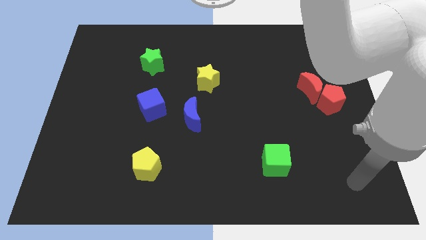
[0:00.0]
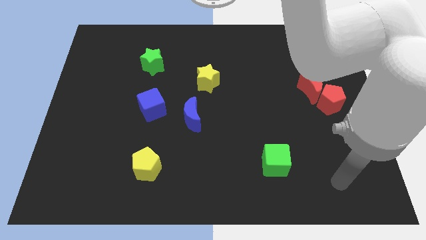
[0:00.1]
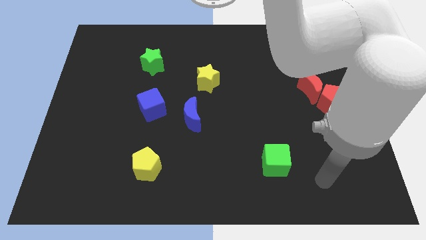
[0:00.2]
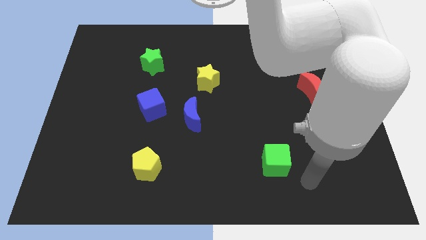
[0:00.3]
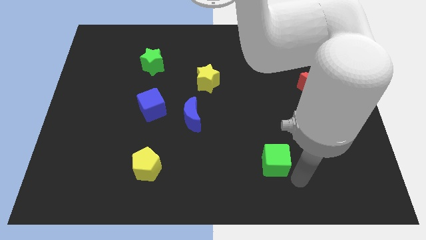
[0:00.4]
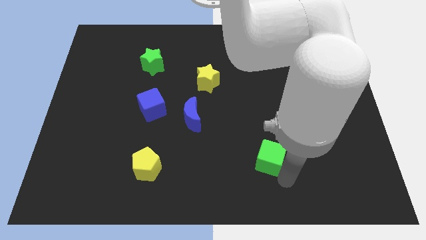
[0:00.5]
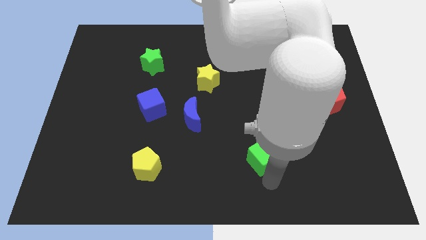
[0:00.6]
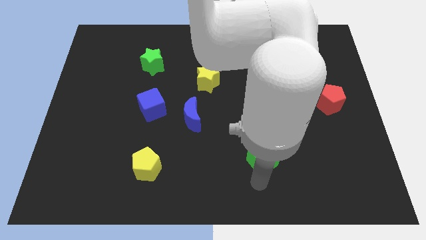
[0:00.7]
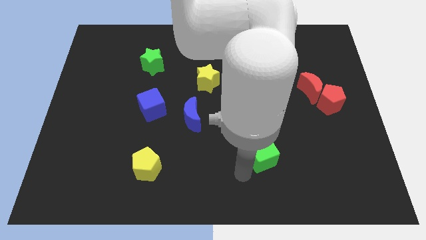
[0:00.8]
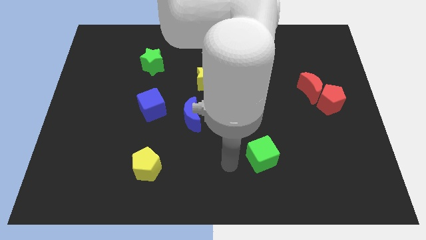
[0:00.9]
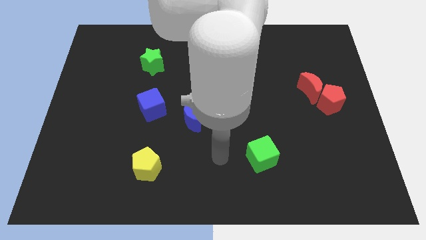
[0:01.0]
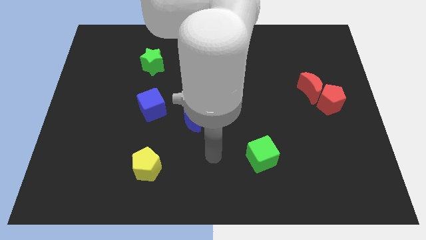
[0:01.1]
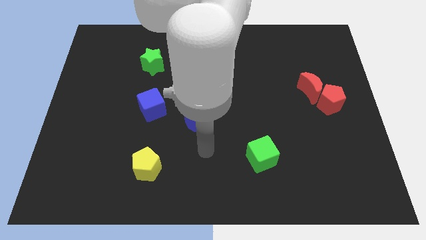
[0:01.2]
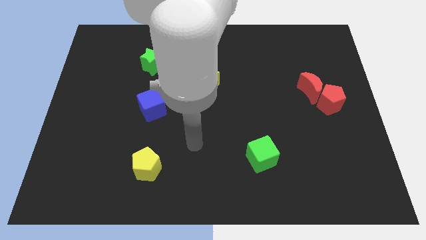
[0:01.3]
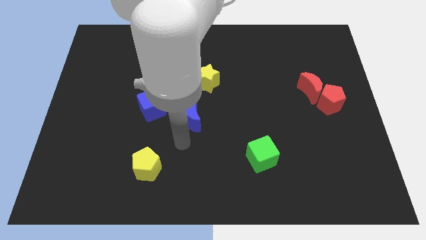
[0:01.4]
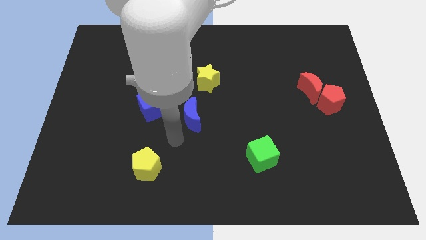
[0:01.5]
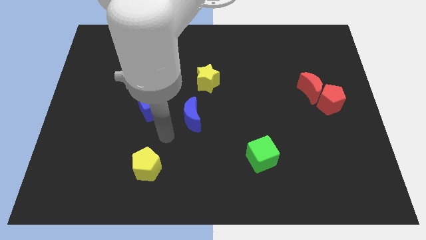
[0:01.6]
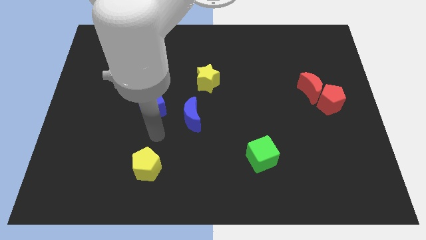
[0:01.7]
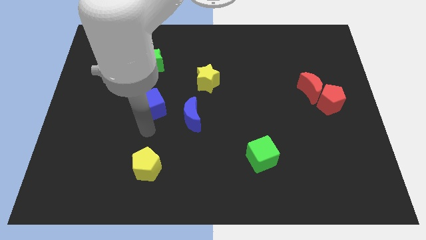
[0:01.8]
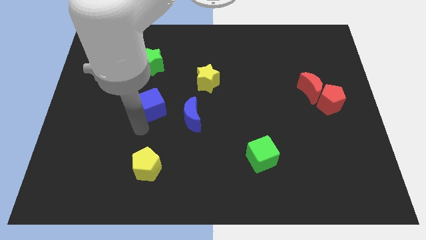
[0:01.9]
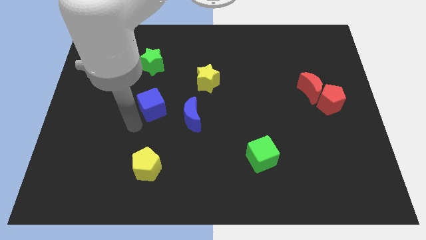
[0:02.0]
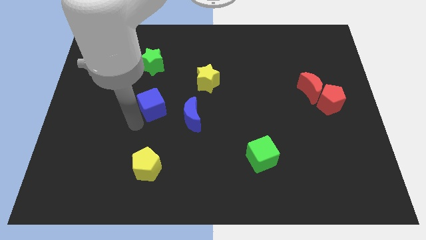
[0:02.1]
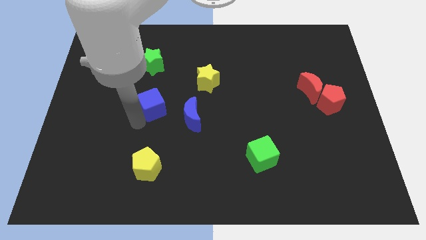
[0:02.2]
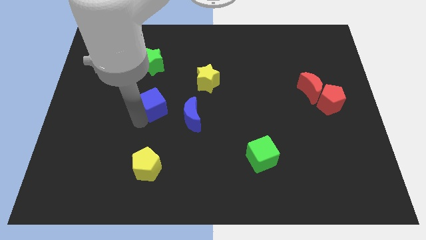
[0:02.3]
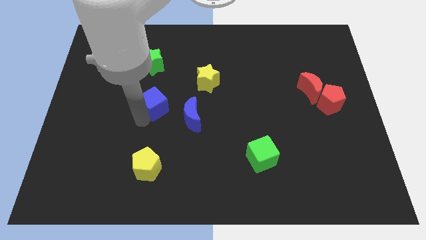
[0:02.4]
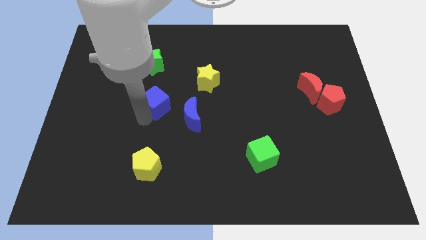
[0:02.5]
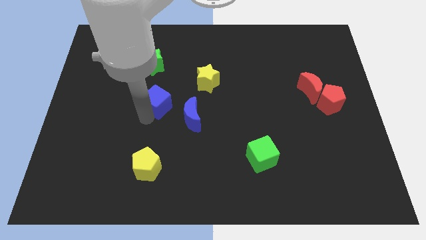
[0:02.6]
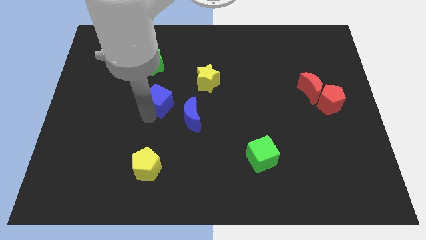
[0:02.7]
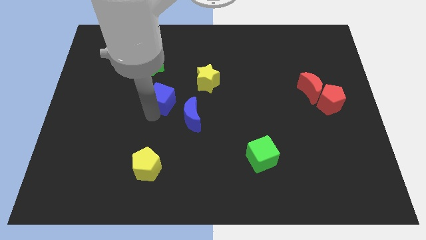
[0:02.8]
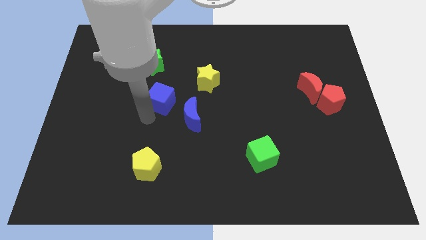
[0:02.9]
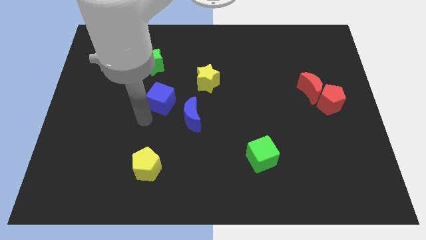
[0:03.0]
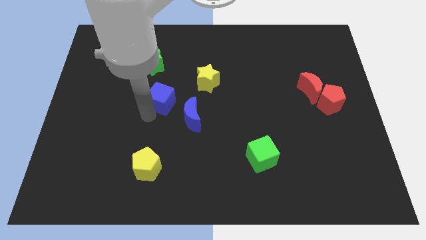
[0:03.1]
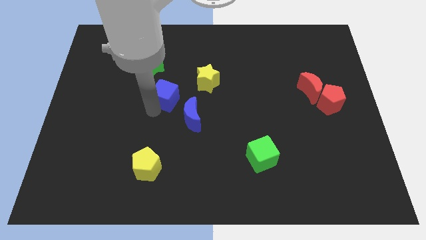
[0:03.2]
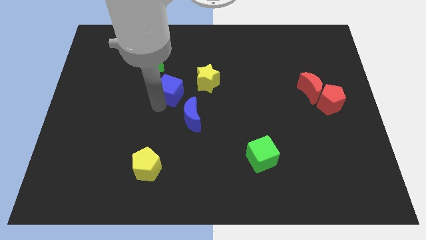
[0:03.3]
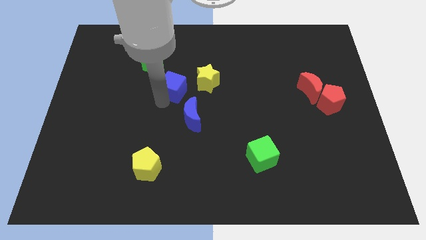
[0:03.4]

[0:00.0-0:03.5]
move the blue cube up and then right somewhat

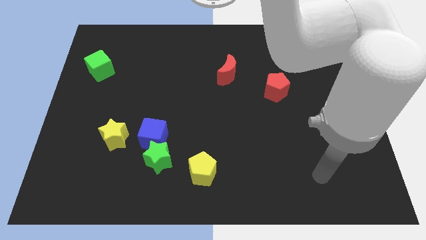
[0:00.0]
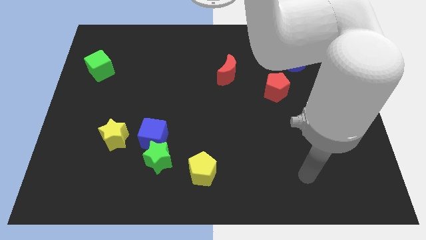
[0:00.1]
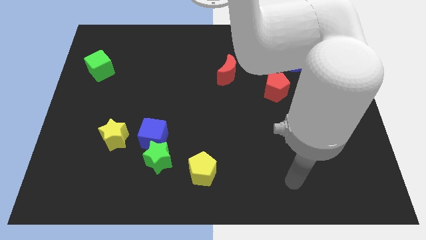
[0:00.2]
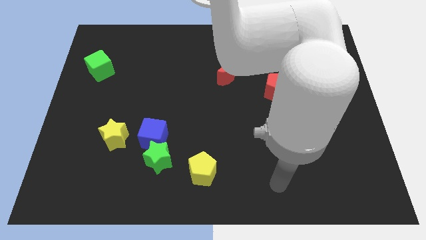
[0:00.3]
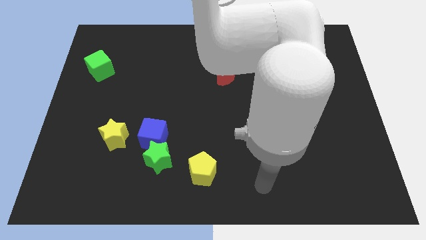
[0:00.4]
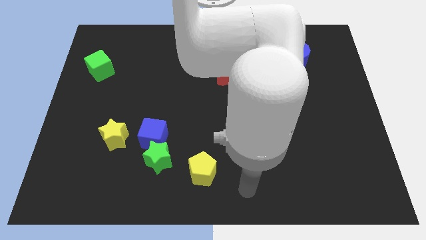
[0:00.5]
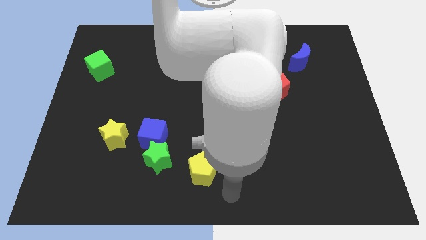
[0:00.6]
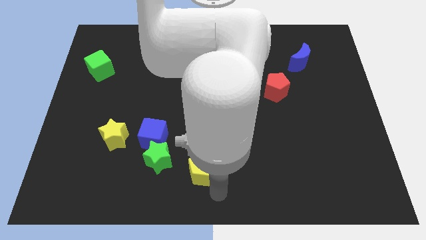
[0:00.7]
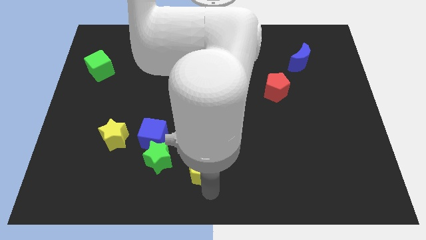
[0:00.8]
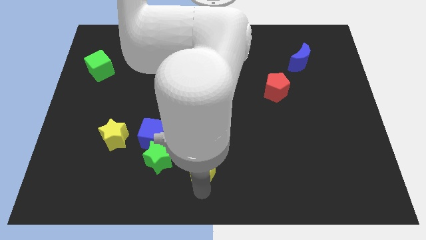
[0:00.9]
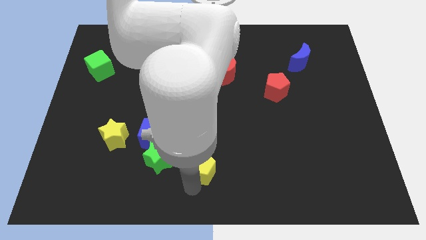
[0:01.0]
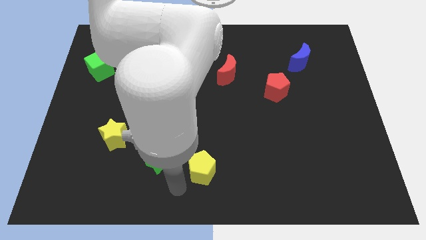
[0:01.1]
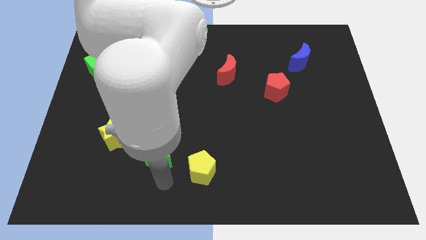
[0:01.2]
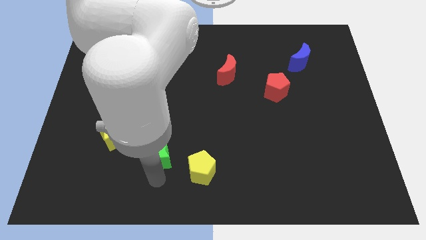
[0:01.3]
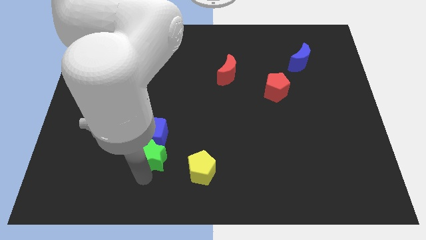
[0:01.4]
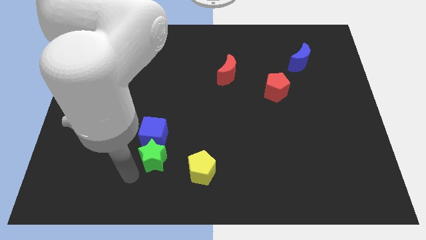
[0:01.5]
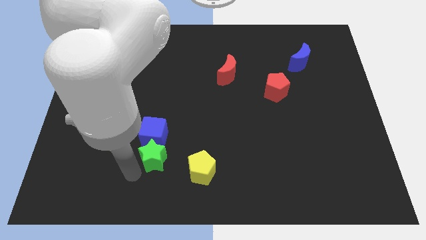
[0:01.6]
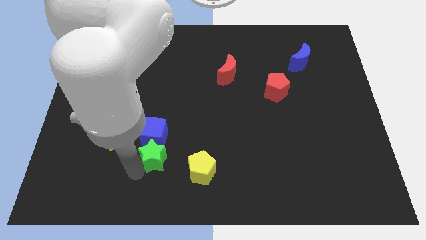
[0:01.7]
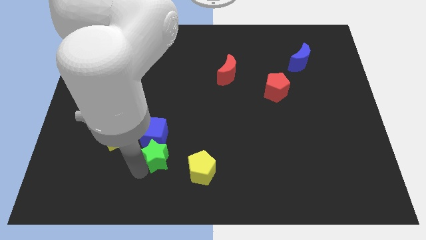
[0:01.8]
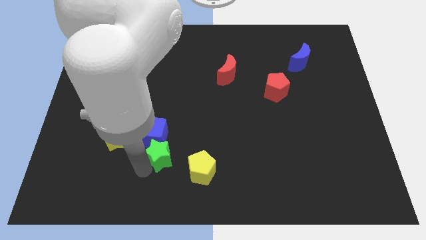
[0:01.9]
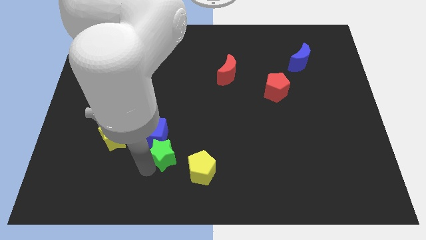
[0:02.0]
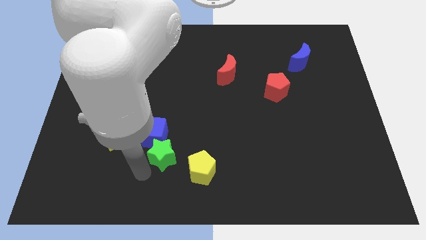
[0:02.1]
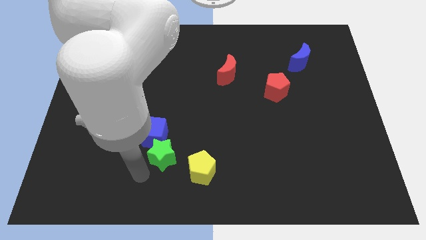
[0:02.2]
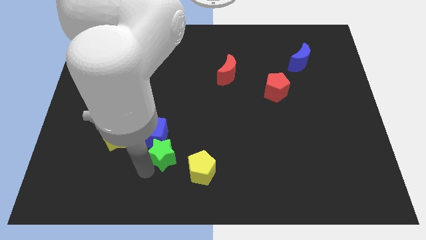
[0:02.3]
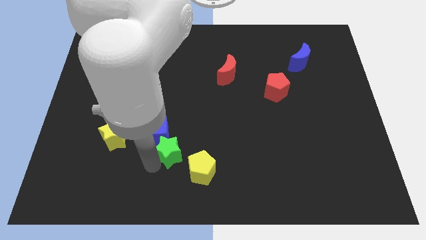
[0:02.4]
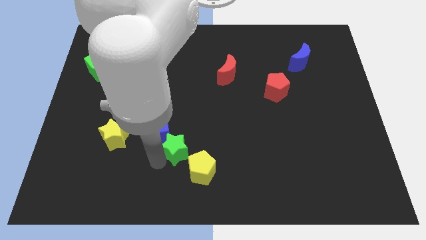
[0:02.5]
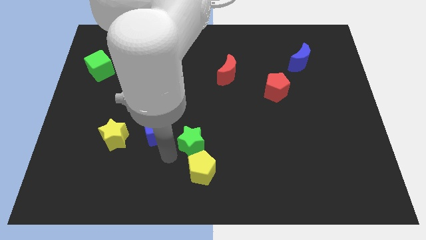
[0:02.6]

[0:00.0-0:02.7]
slightly slide the green star upwards and to the right

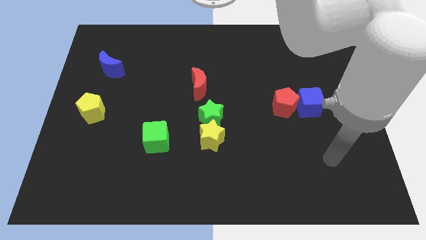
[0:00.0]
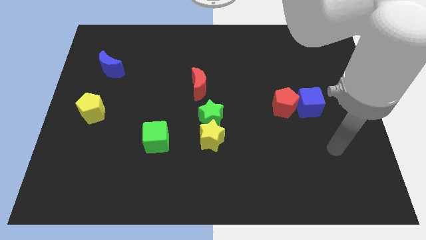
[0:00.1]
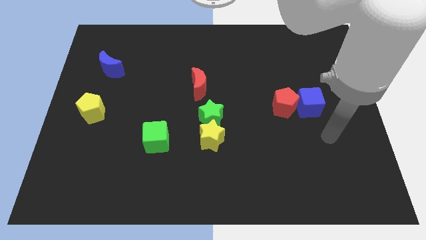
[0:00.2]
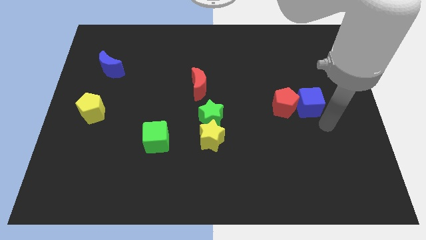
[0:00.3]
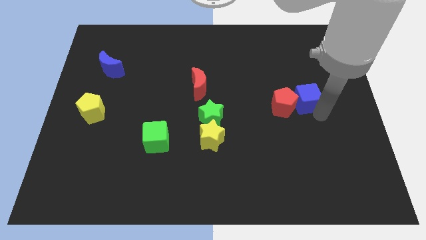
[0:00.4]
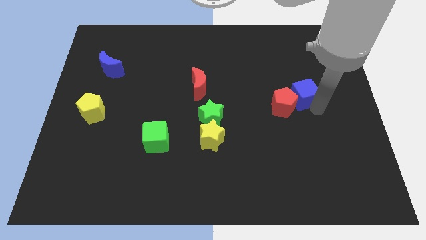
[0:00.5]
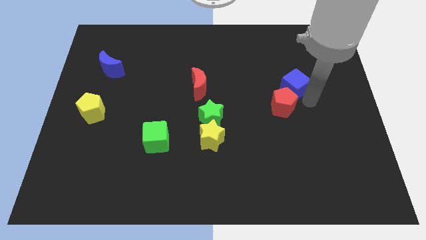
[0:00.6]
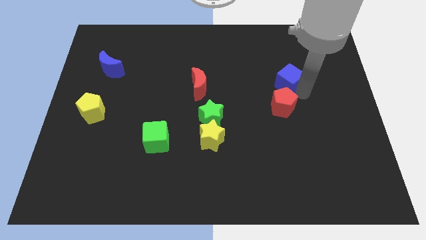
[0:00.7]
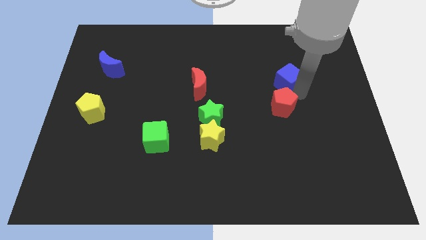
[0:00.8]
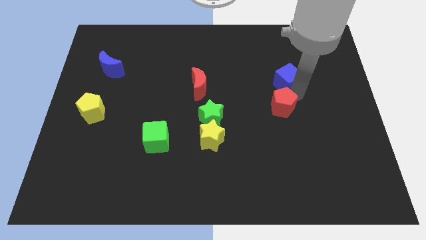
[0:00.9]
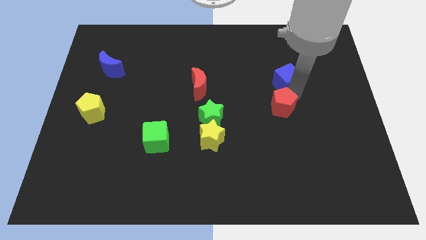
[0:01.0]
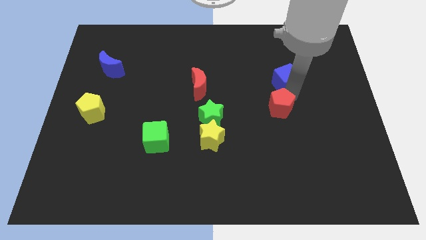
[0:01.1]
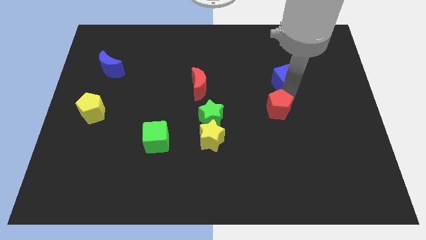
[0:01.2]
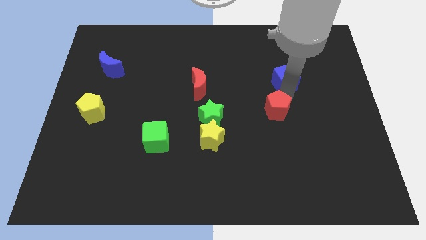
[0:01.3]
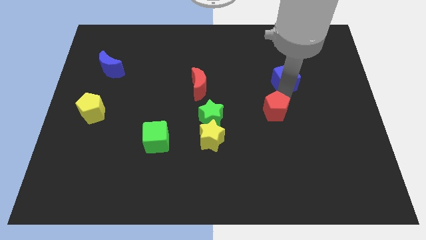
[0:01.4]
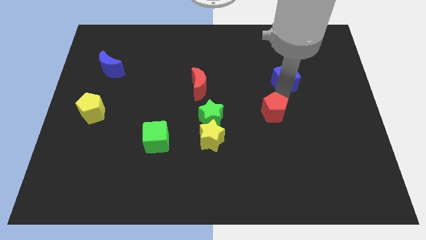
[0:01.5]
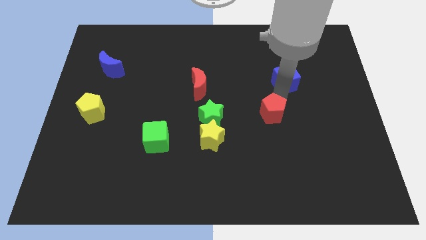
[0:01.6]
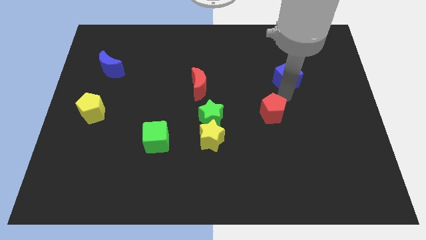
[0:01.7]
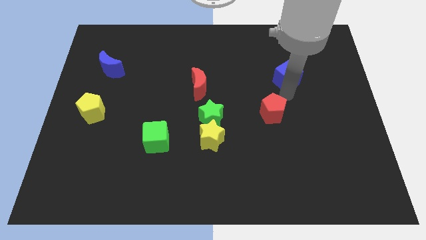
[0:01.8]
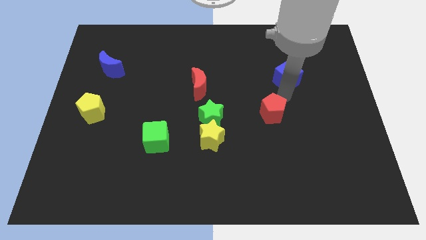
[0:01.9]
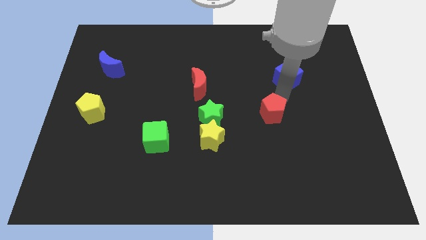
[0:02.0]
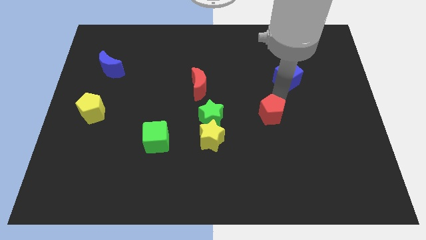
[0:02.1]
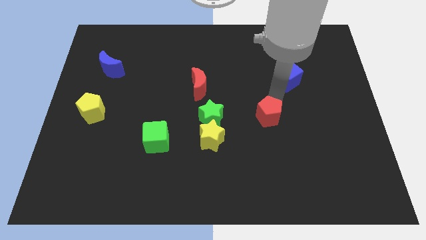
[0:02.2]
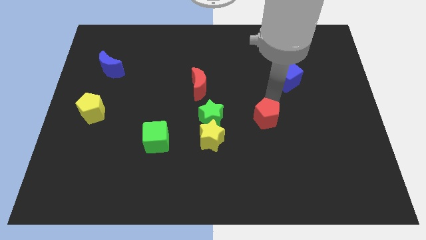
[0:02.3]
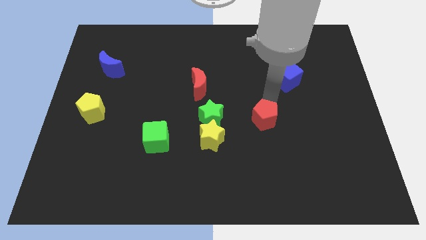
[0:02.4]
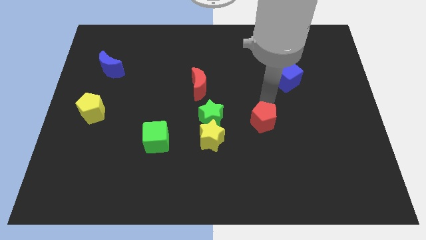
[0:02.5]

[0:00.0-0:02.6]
slightly move the red pentagon down and to the left diagonally
